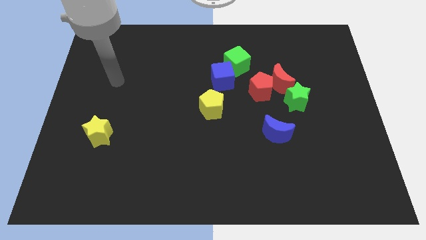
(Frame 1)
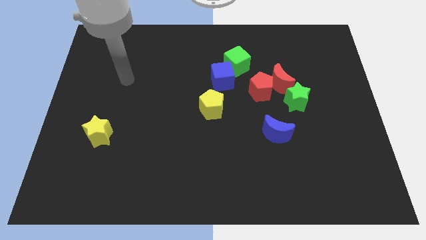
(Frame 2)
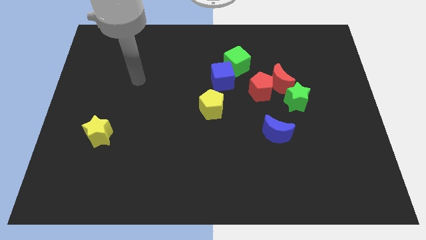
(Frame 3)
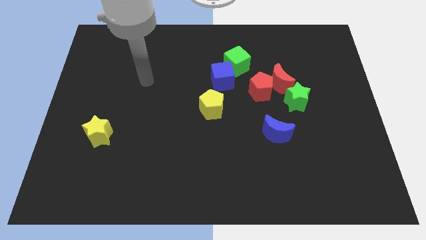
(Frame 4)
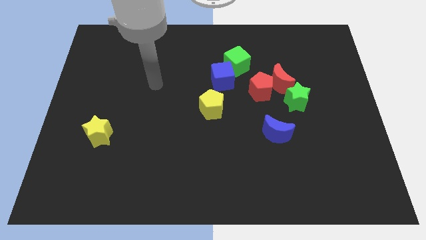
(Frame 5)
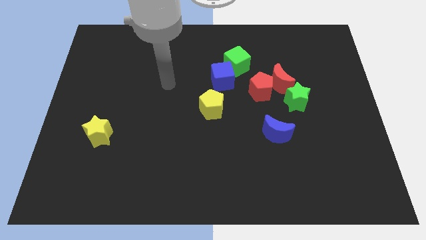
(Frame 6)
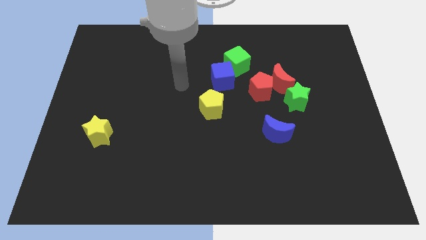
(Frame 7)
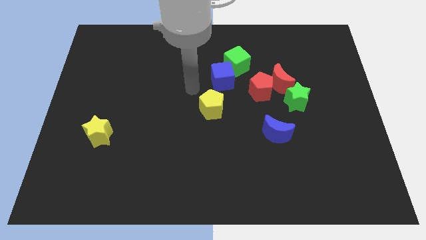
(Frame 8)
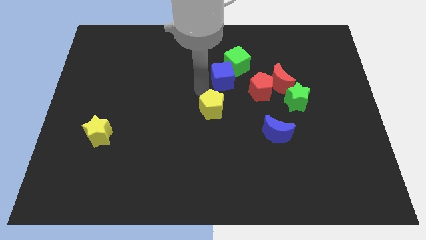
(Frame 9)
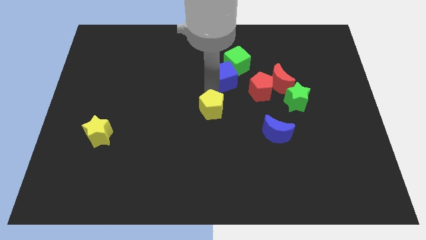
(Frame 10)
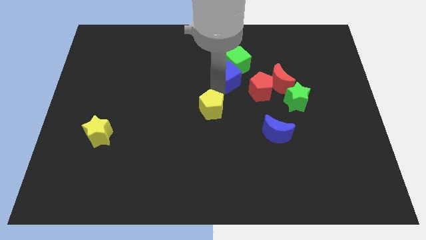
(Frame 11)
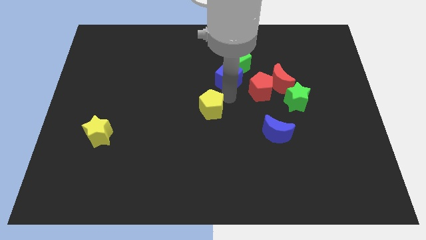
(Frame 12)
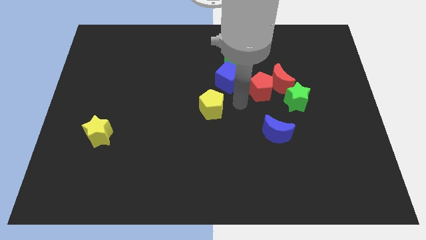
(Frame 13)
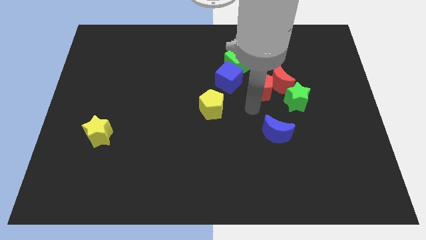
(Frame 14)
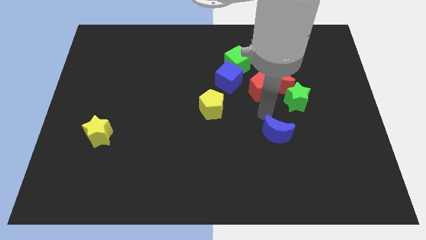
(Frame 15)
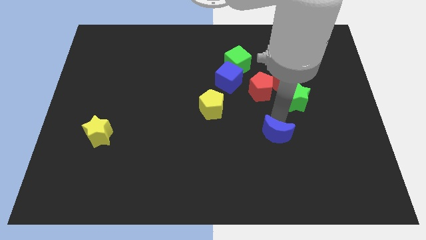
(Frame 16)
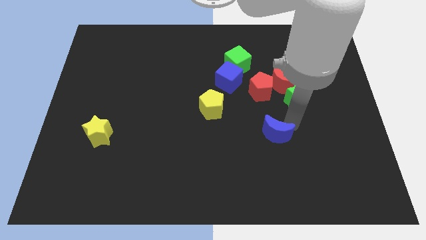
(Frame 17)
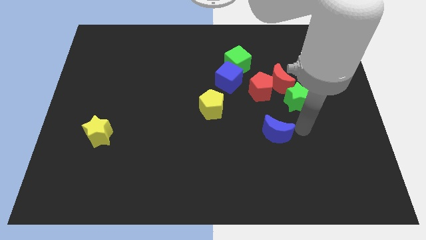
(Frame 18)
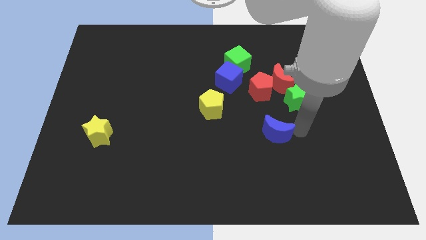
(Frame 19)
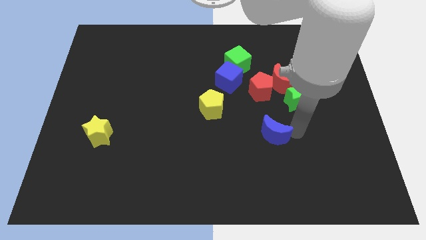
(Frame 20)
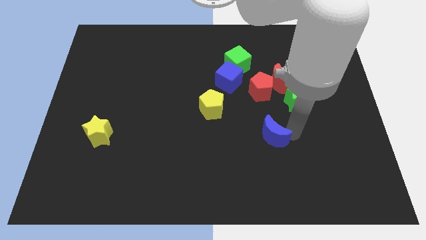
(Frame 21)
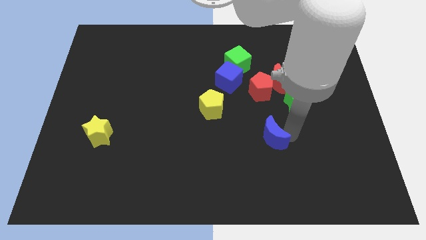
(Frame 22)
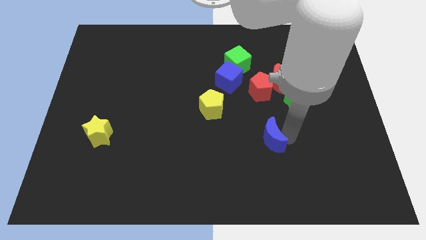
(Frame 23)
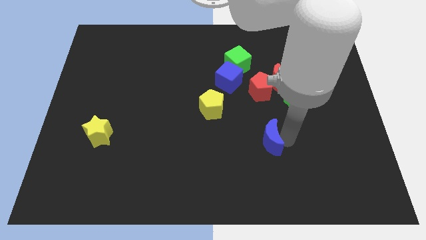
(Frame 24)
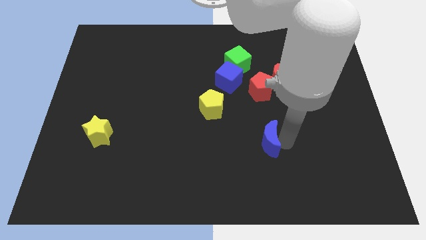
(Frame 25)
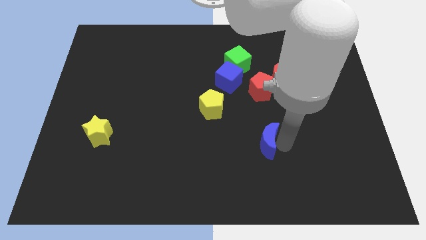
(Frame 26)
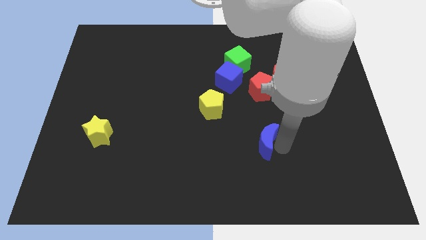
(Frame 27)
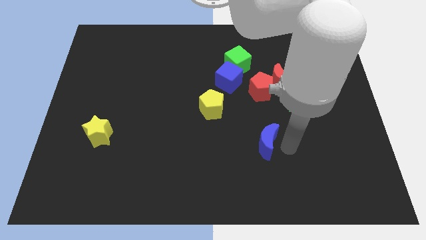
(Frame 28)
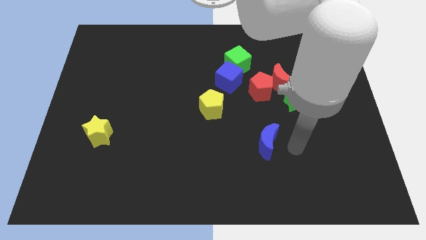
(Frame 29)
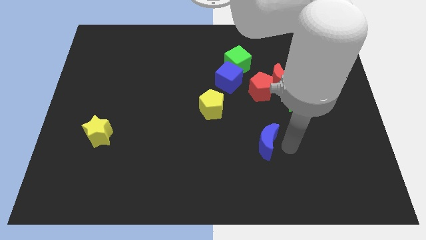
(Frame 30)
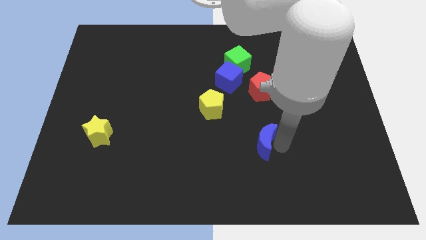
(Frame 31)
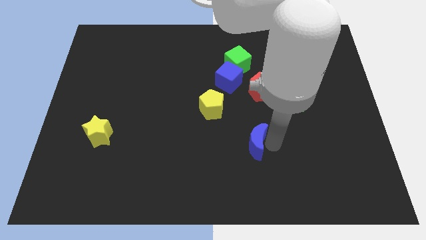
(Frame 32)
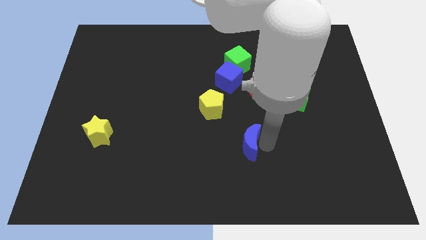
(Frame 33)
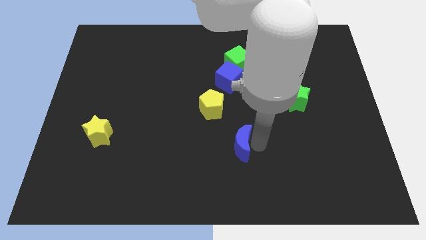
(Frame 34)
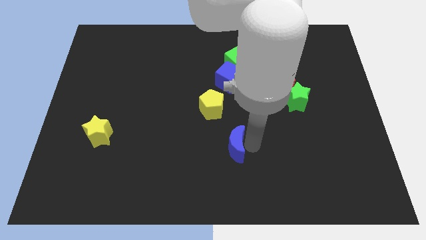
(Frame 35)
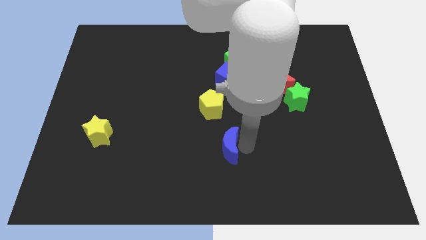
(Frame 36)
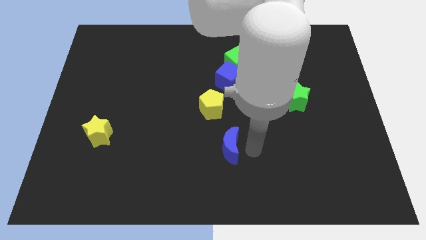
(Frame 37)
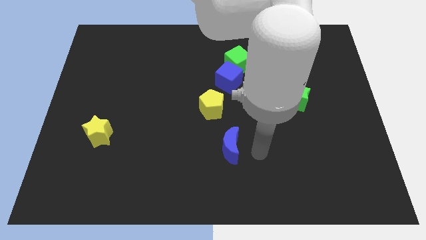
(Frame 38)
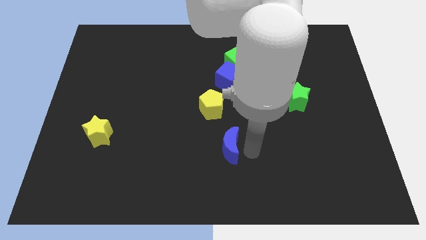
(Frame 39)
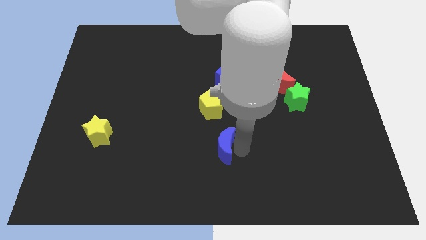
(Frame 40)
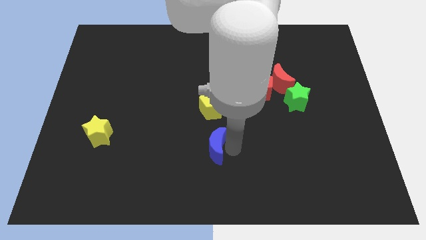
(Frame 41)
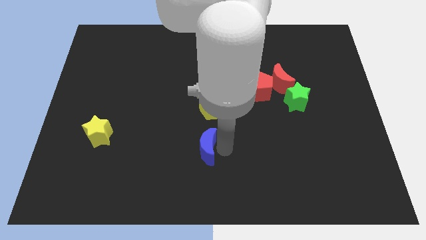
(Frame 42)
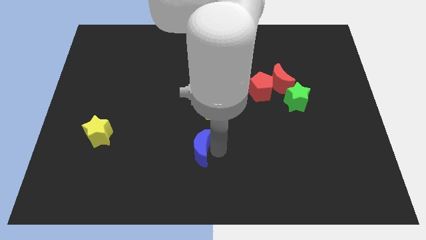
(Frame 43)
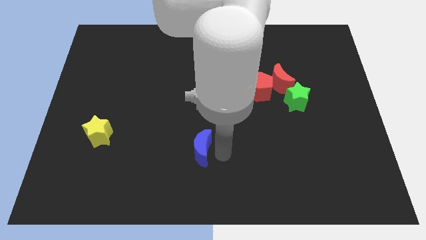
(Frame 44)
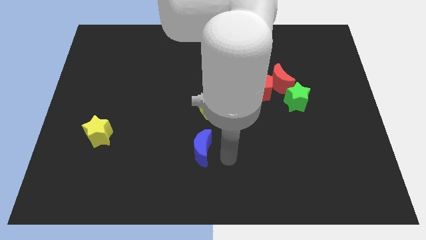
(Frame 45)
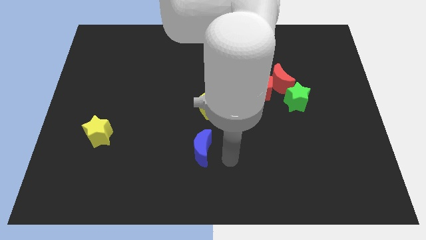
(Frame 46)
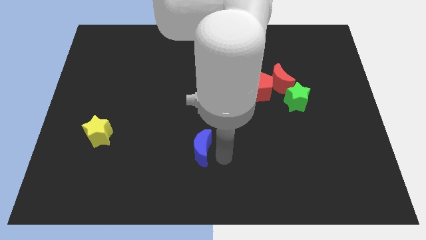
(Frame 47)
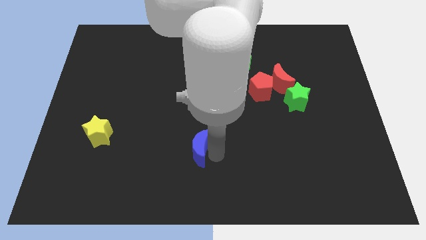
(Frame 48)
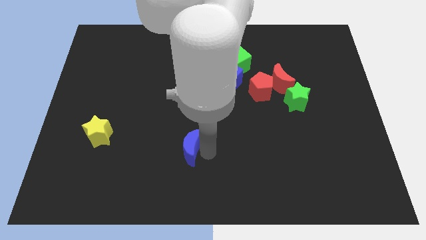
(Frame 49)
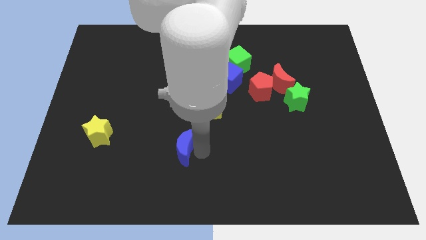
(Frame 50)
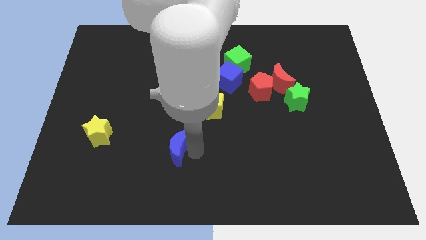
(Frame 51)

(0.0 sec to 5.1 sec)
push the blue moon to the left

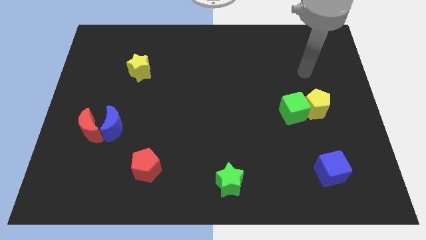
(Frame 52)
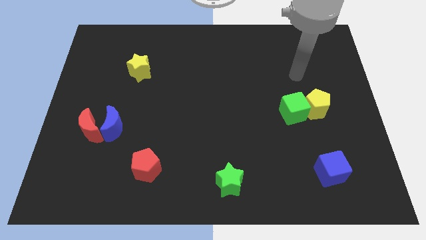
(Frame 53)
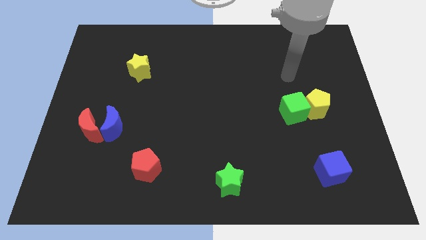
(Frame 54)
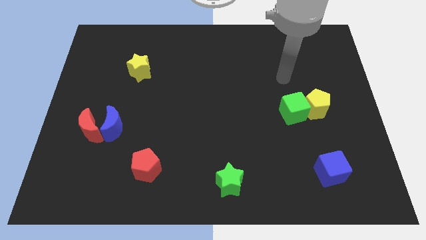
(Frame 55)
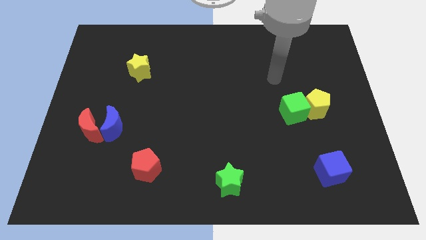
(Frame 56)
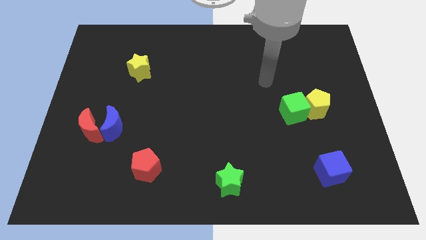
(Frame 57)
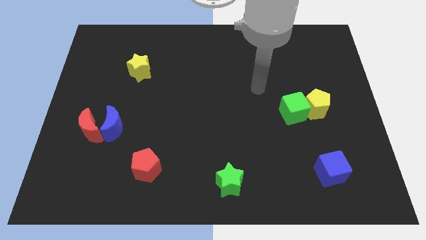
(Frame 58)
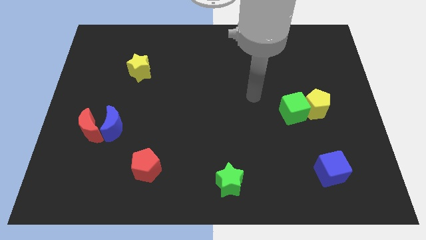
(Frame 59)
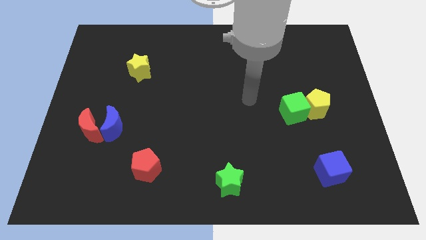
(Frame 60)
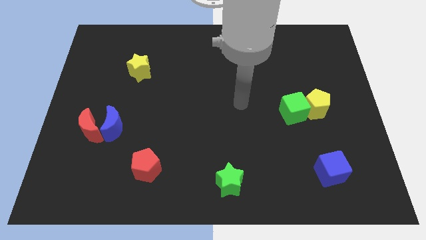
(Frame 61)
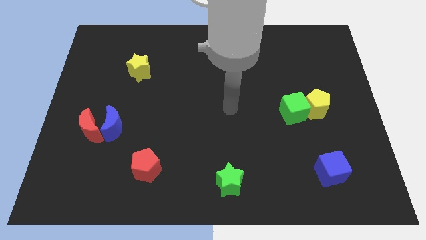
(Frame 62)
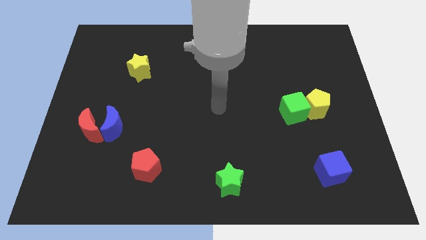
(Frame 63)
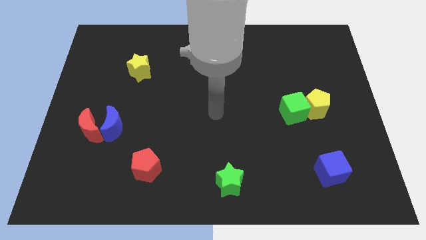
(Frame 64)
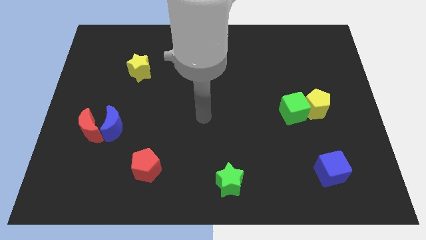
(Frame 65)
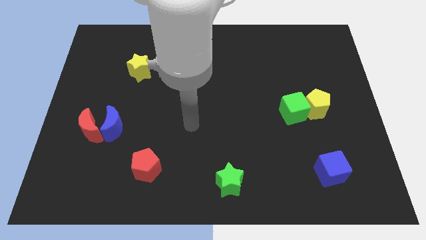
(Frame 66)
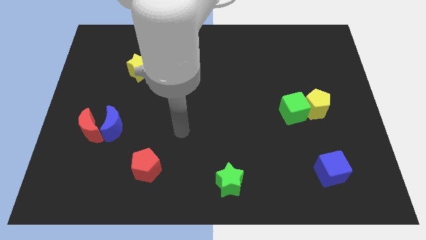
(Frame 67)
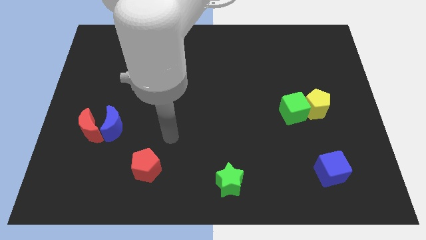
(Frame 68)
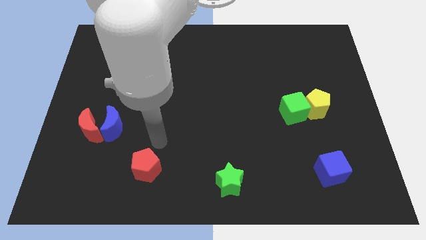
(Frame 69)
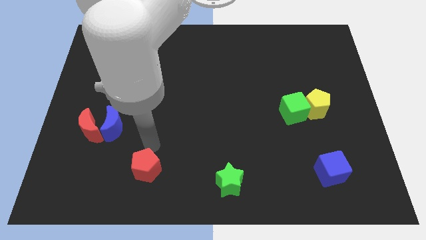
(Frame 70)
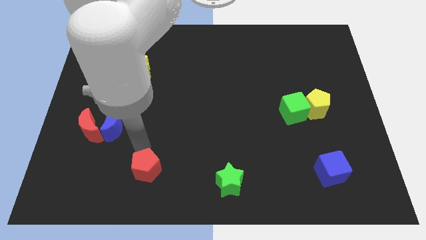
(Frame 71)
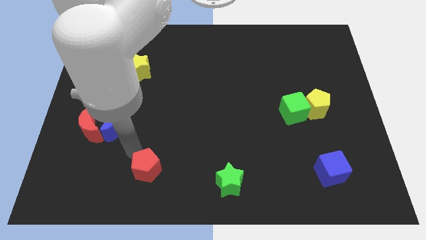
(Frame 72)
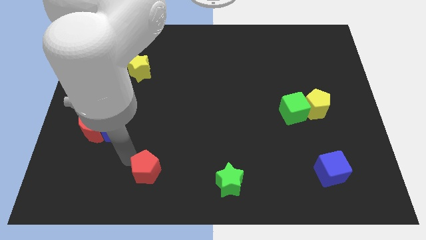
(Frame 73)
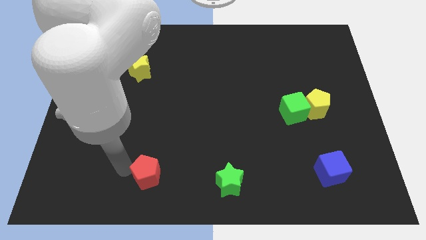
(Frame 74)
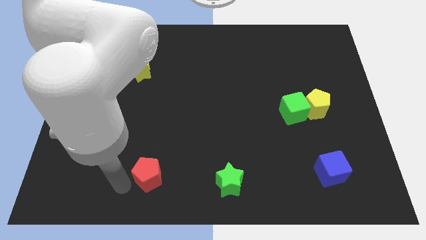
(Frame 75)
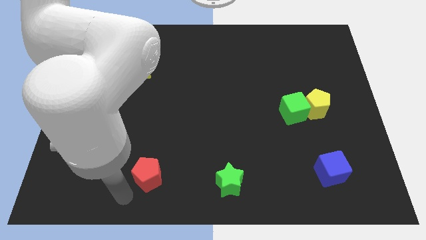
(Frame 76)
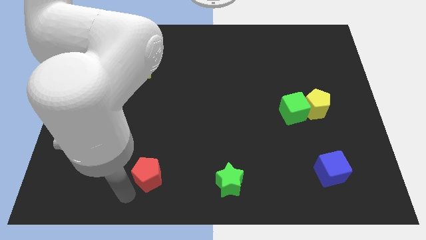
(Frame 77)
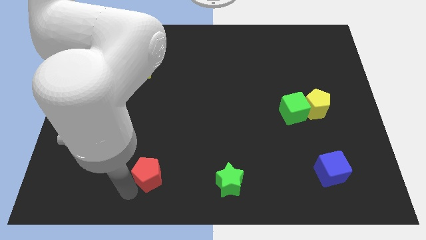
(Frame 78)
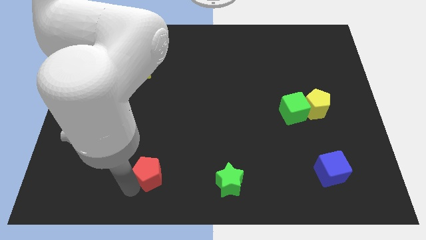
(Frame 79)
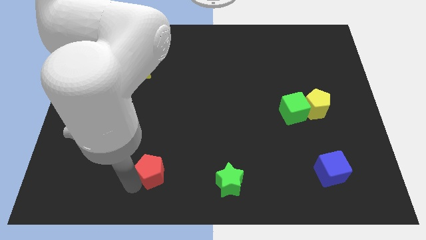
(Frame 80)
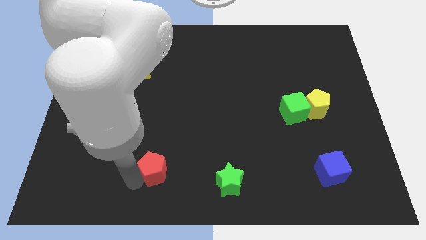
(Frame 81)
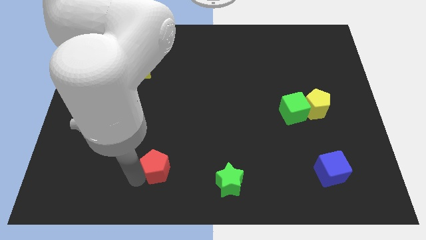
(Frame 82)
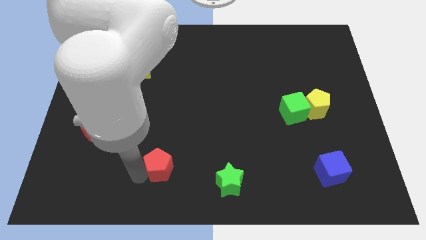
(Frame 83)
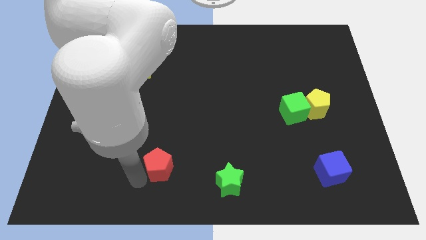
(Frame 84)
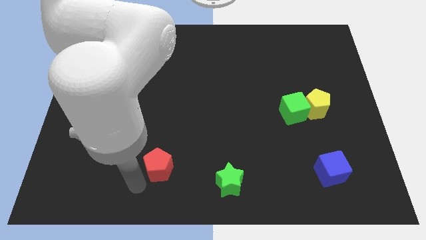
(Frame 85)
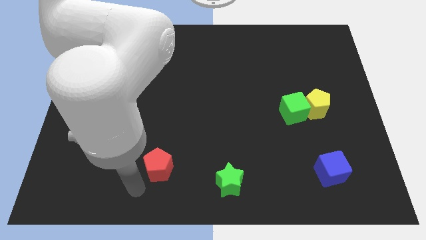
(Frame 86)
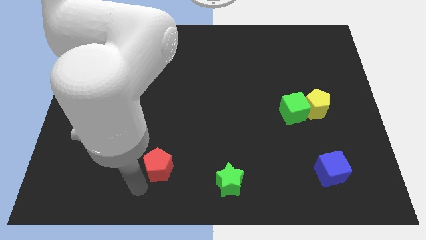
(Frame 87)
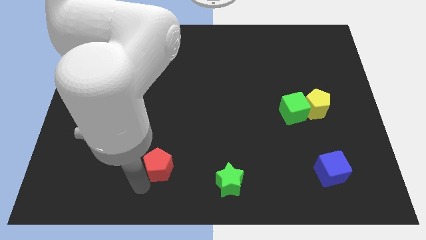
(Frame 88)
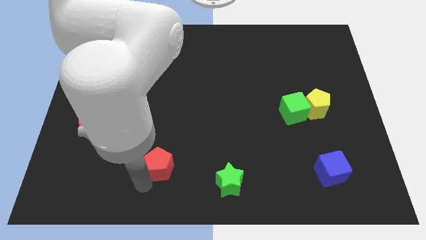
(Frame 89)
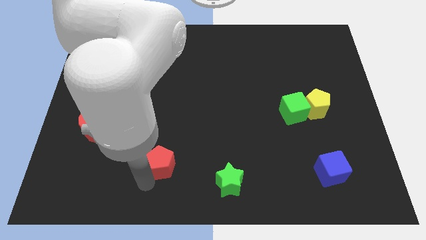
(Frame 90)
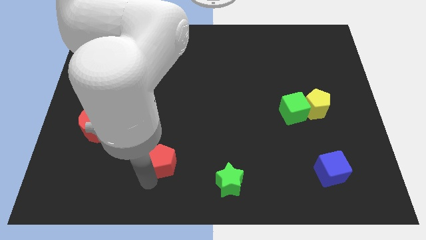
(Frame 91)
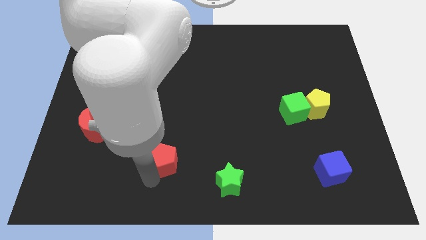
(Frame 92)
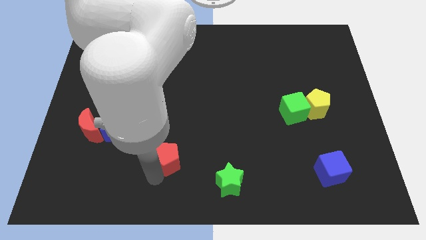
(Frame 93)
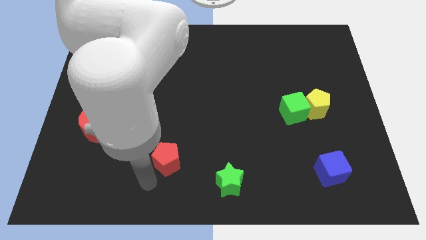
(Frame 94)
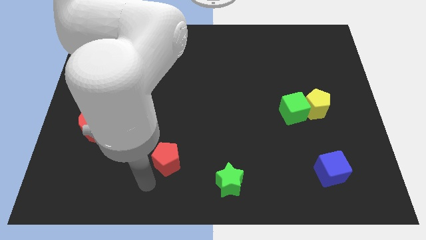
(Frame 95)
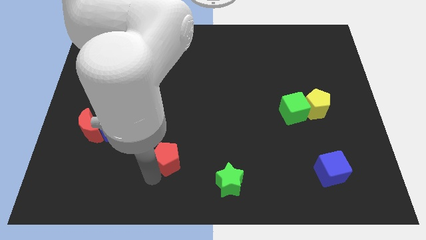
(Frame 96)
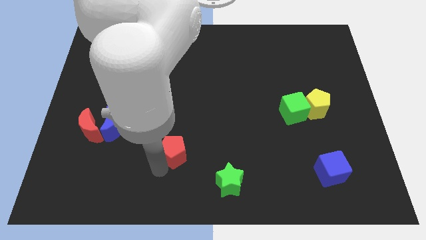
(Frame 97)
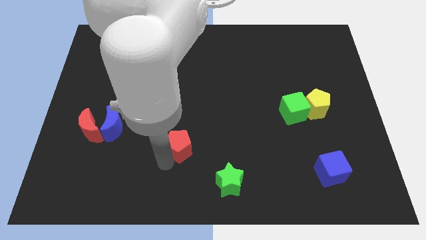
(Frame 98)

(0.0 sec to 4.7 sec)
move the red pentagon somewhat diagonally up and right
